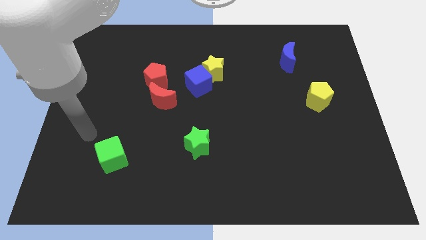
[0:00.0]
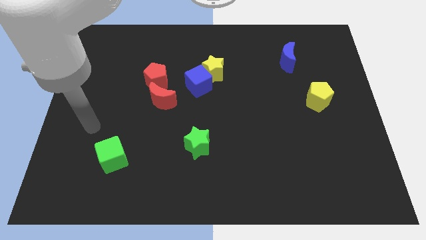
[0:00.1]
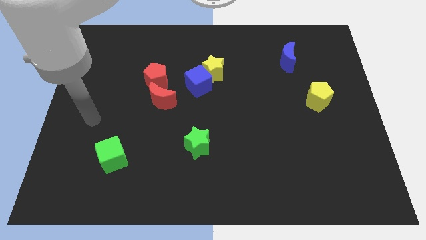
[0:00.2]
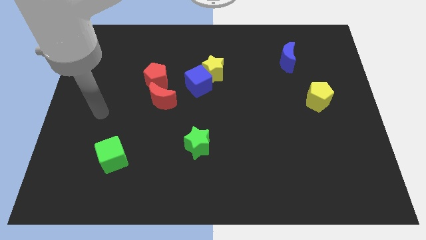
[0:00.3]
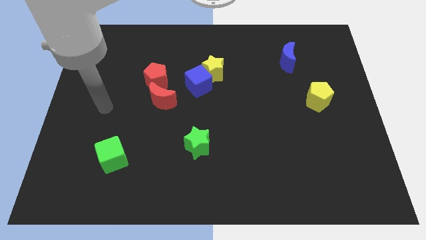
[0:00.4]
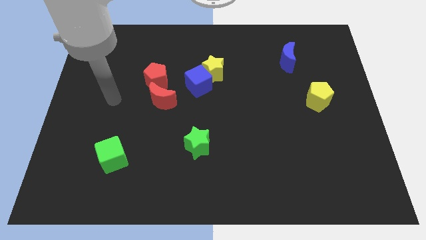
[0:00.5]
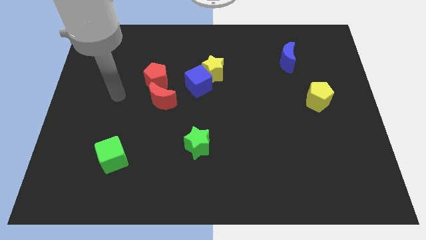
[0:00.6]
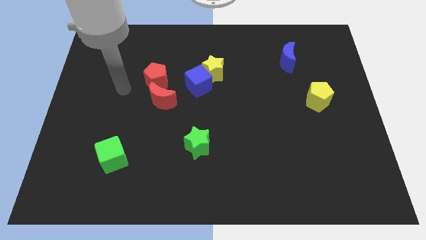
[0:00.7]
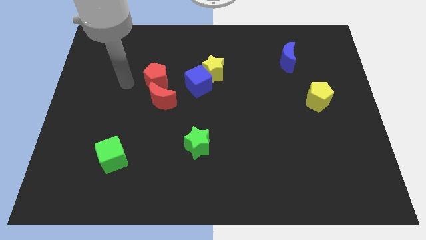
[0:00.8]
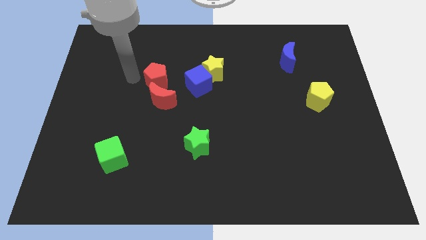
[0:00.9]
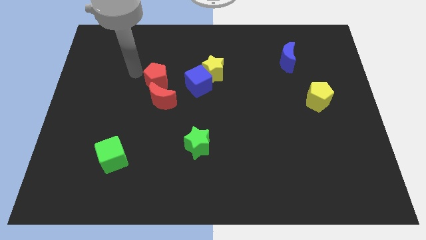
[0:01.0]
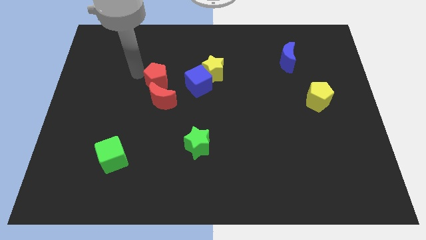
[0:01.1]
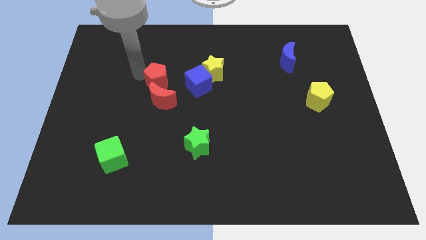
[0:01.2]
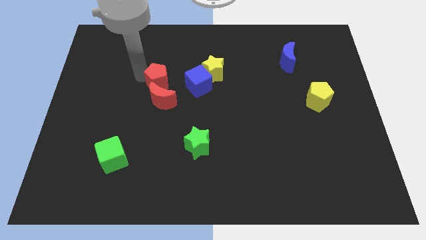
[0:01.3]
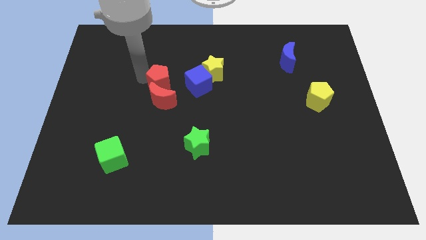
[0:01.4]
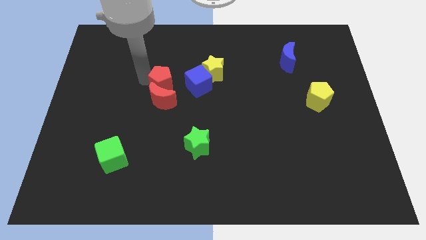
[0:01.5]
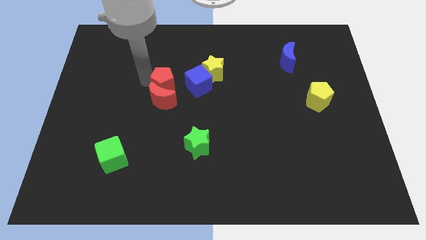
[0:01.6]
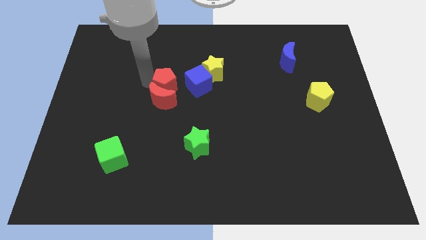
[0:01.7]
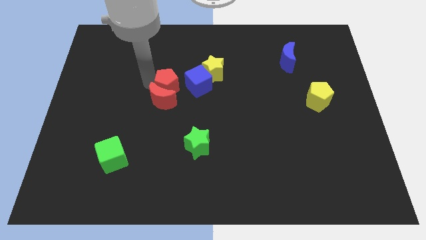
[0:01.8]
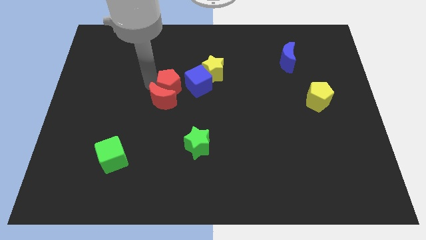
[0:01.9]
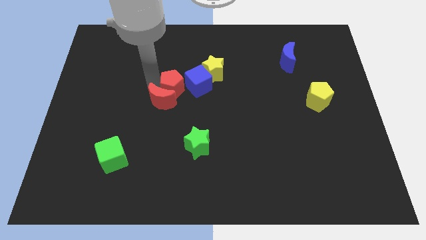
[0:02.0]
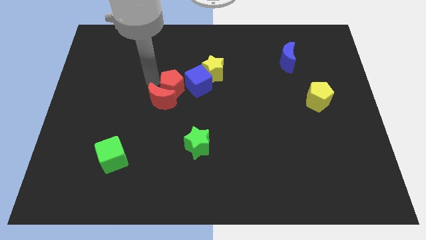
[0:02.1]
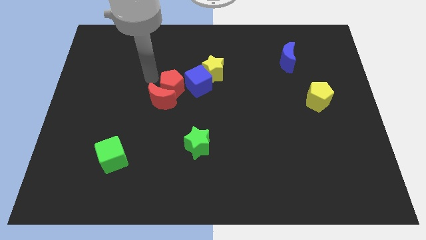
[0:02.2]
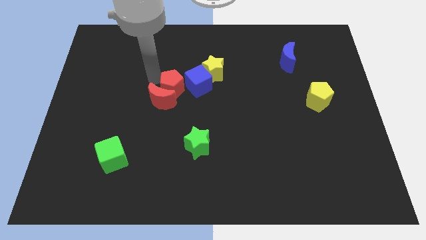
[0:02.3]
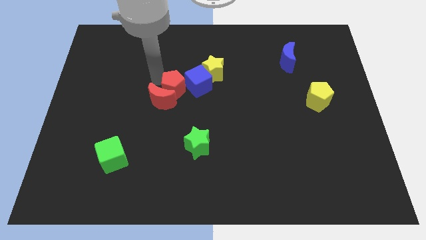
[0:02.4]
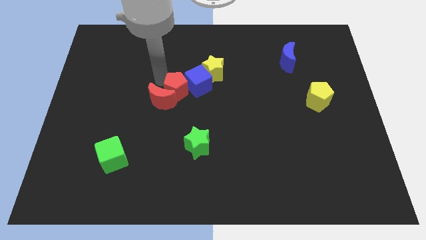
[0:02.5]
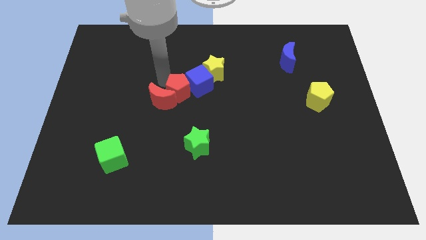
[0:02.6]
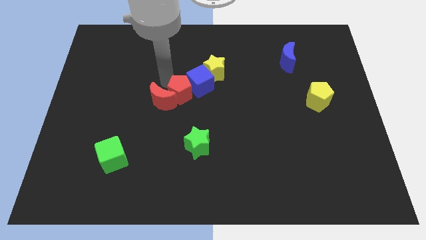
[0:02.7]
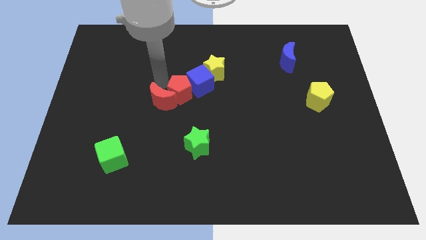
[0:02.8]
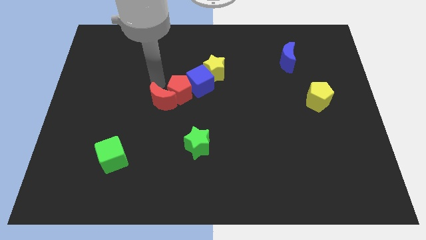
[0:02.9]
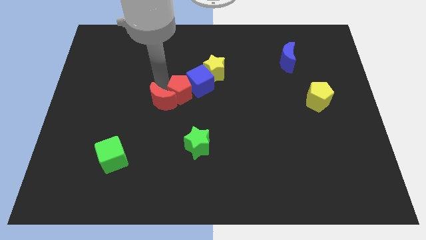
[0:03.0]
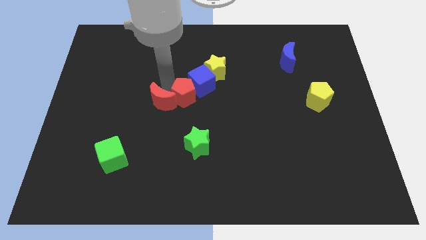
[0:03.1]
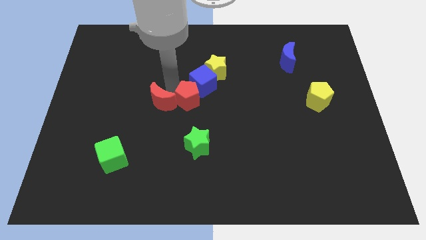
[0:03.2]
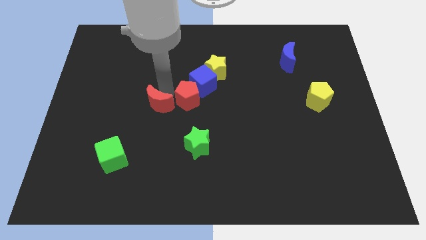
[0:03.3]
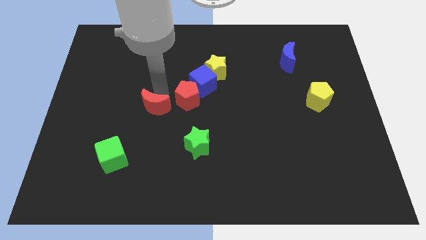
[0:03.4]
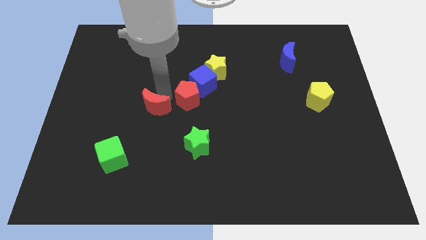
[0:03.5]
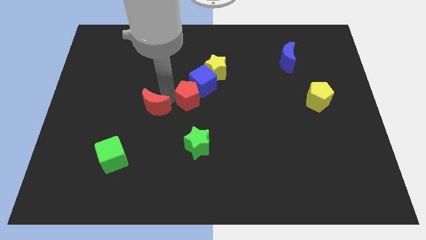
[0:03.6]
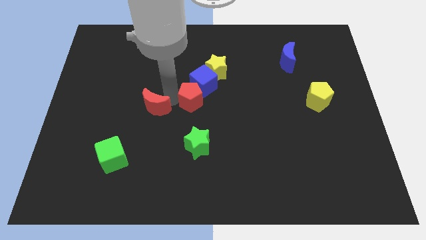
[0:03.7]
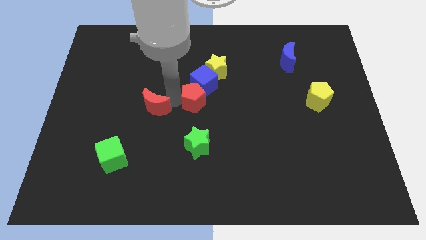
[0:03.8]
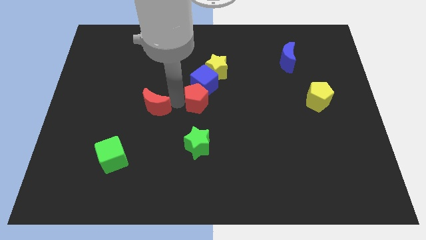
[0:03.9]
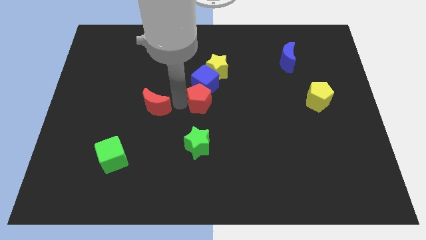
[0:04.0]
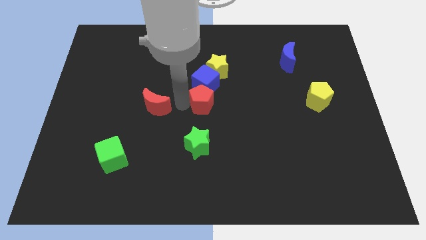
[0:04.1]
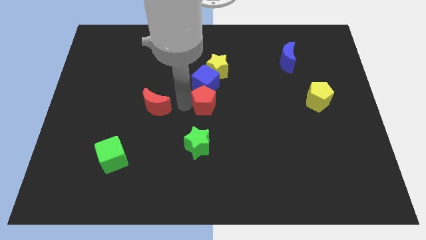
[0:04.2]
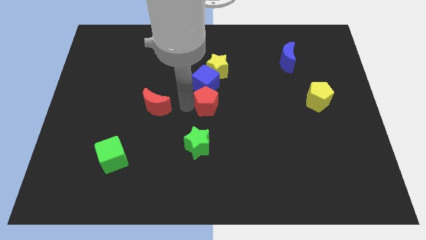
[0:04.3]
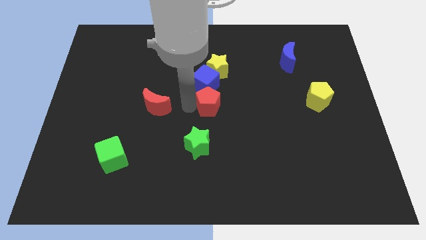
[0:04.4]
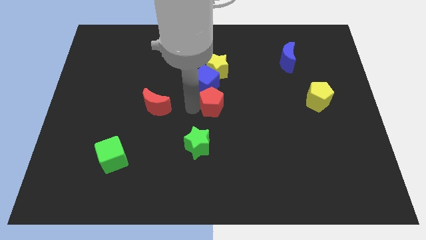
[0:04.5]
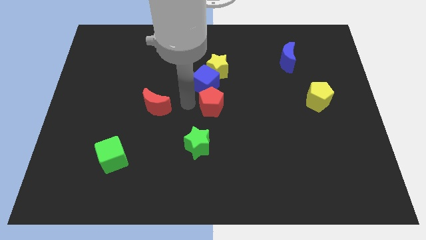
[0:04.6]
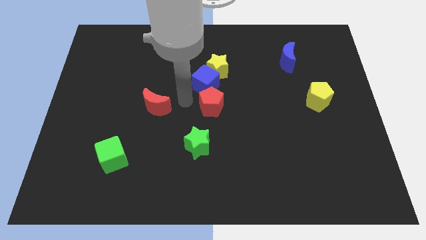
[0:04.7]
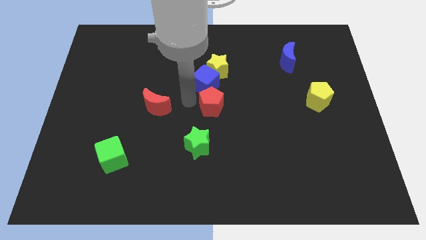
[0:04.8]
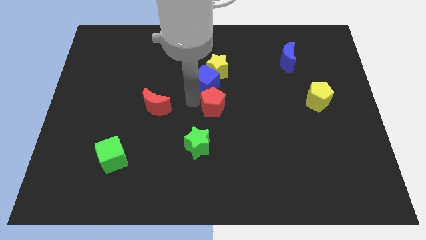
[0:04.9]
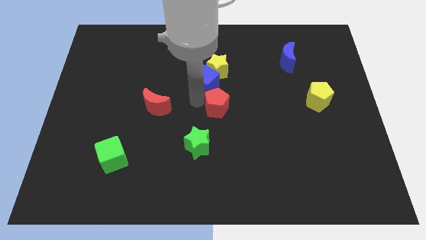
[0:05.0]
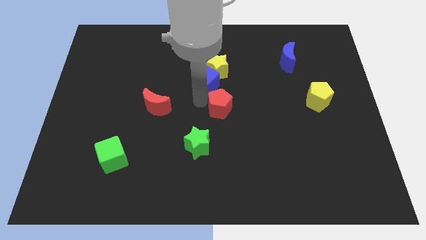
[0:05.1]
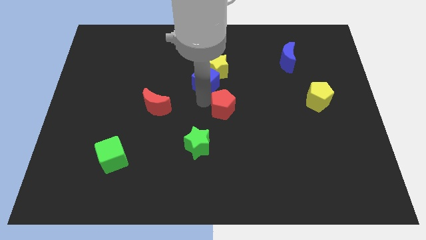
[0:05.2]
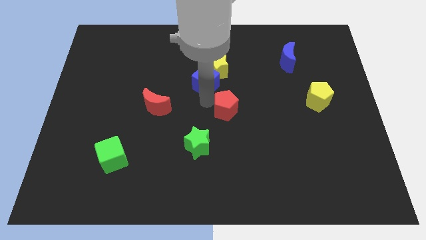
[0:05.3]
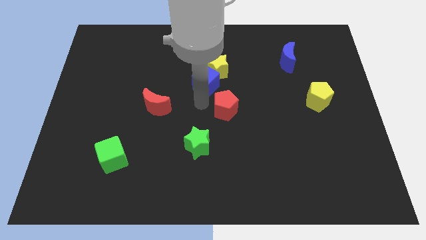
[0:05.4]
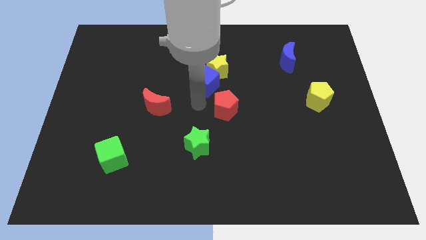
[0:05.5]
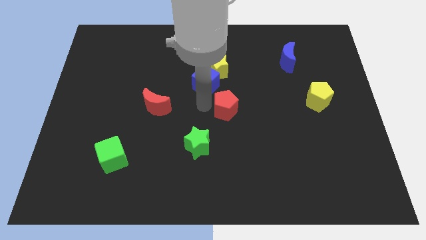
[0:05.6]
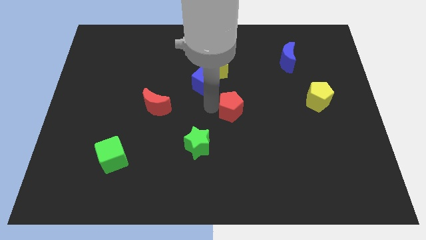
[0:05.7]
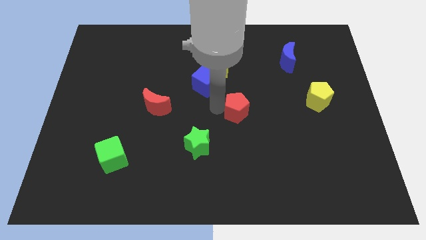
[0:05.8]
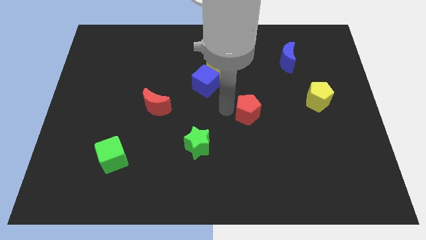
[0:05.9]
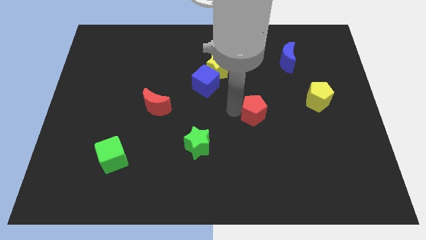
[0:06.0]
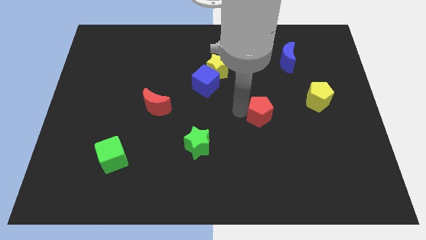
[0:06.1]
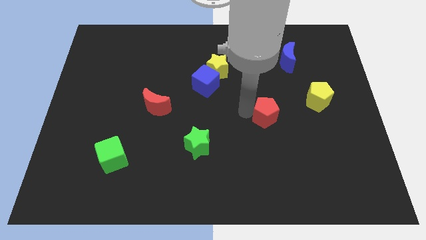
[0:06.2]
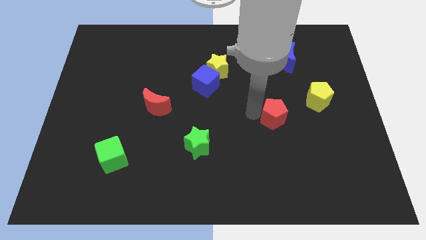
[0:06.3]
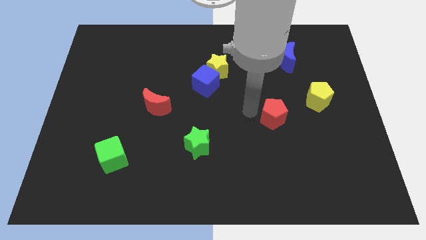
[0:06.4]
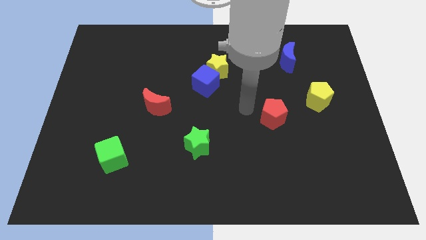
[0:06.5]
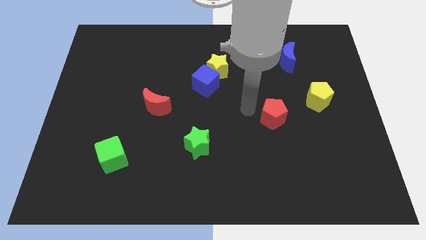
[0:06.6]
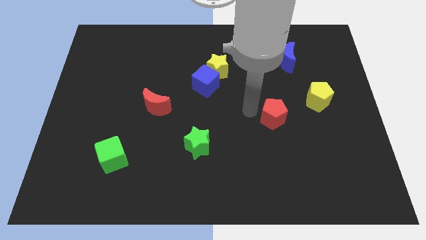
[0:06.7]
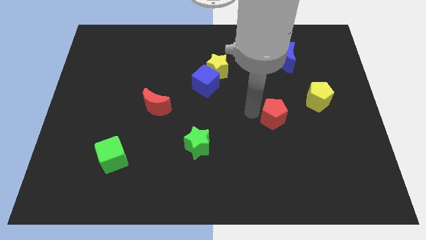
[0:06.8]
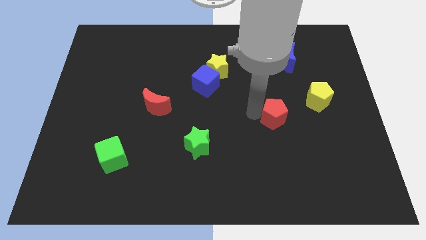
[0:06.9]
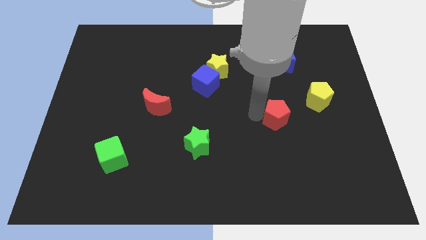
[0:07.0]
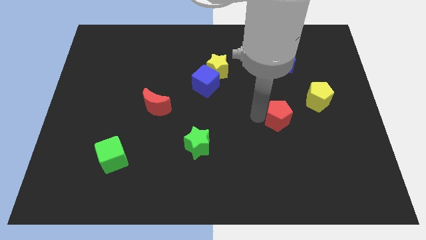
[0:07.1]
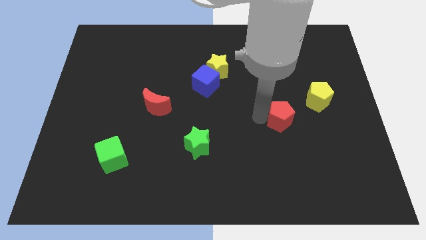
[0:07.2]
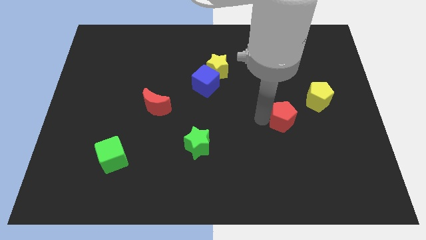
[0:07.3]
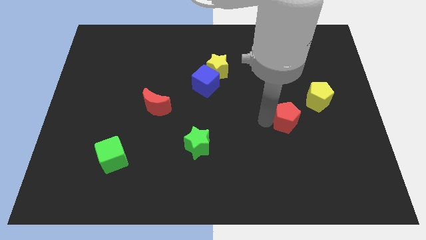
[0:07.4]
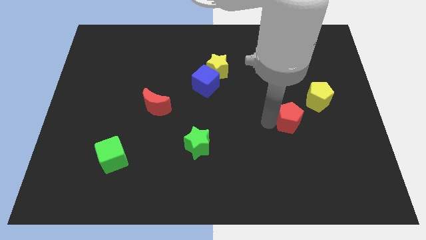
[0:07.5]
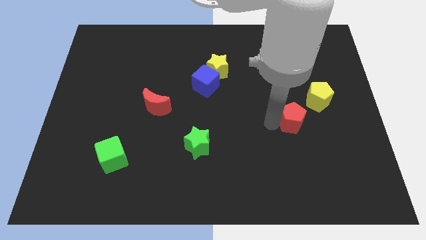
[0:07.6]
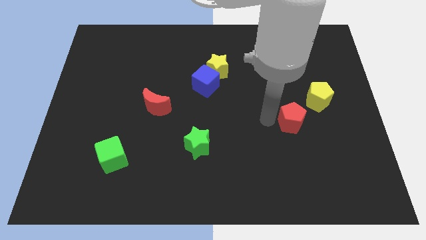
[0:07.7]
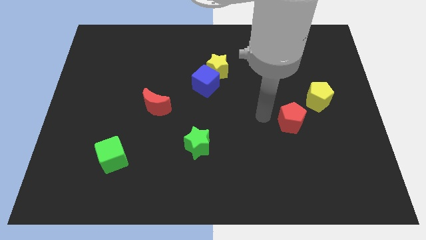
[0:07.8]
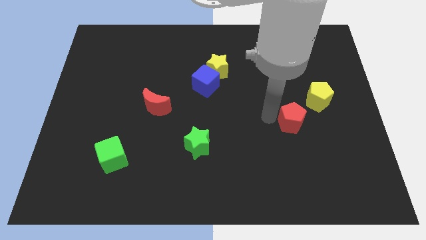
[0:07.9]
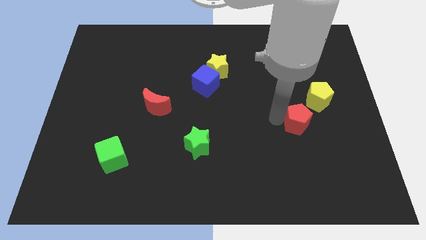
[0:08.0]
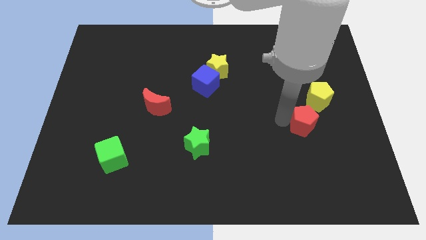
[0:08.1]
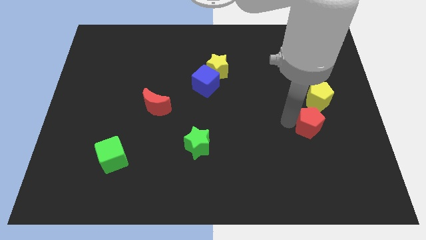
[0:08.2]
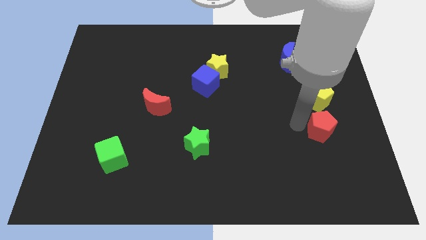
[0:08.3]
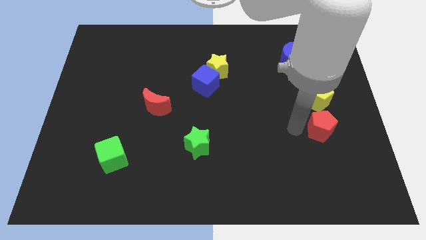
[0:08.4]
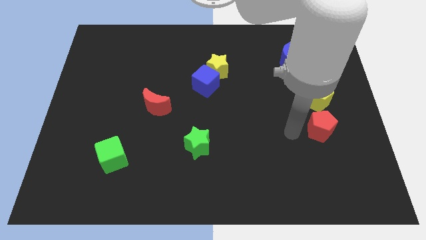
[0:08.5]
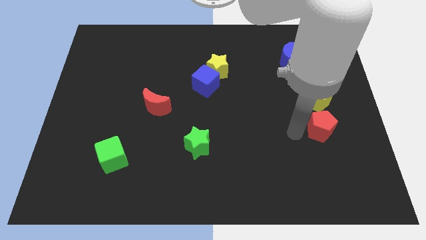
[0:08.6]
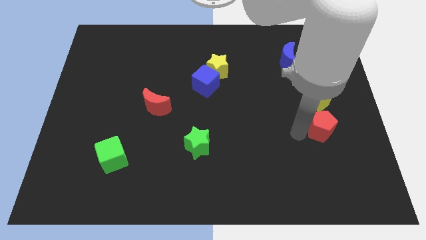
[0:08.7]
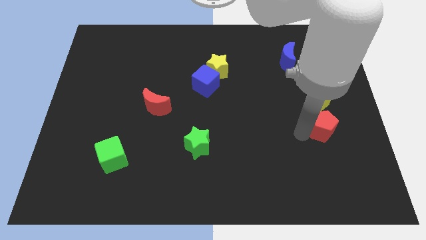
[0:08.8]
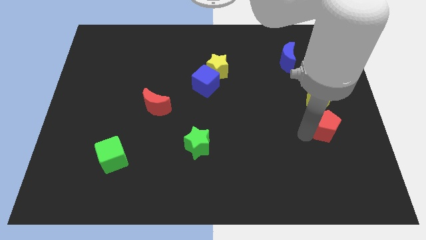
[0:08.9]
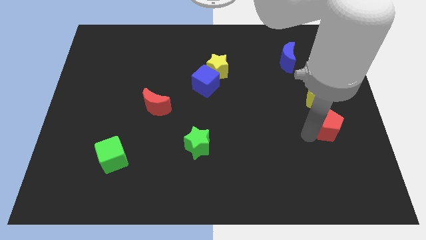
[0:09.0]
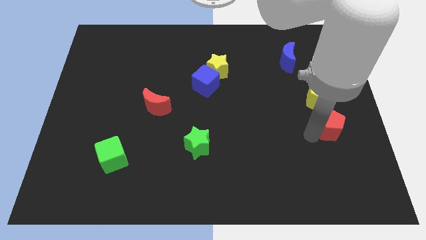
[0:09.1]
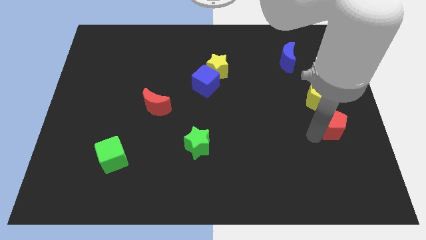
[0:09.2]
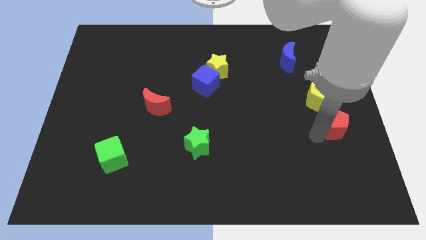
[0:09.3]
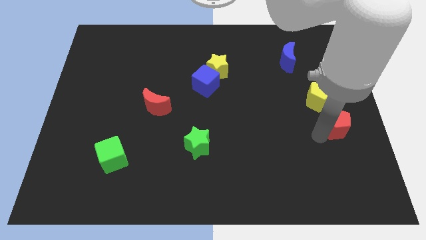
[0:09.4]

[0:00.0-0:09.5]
push the red pentagon to the right side of the board
